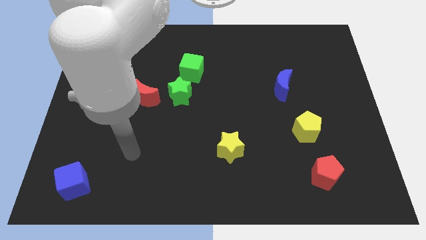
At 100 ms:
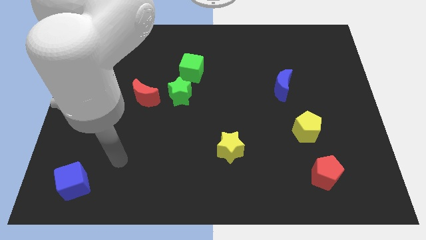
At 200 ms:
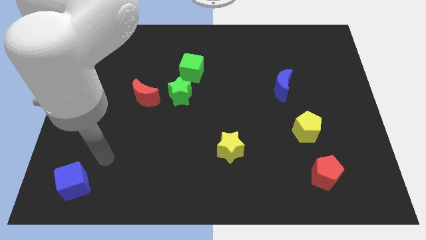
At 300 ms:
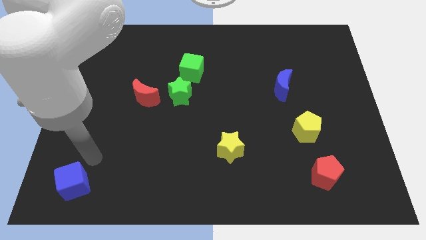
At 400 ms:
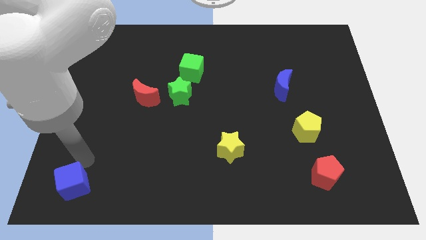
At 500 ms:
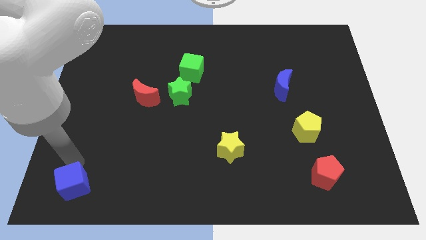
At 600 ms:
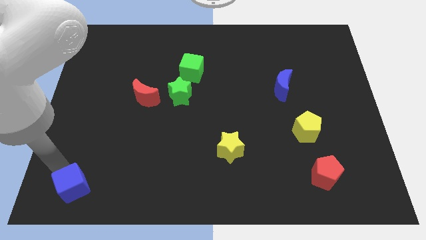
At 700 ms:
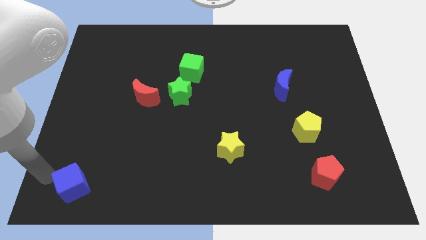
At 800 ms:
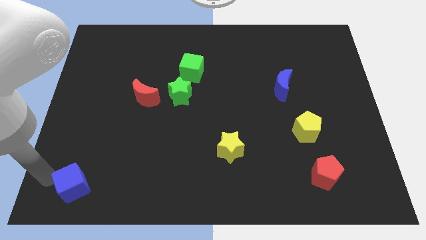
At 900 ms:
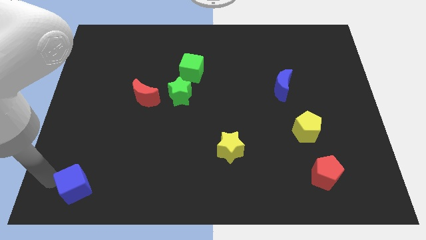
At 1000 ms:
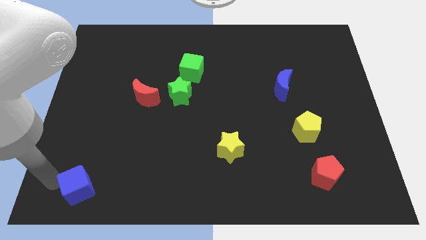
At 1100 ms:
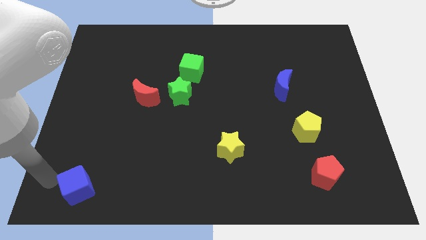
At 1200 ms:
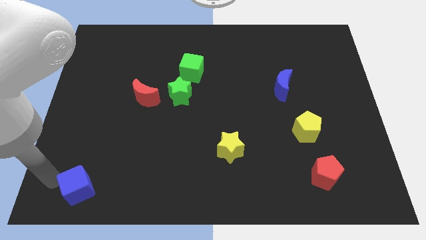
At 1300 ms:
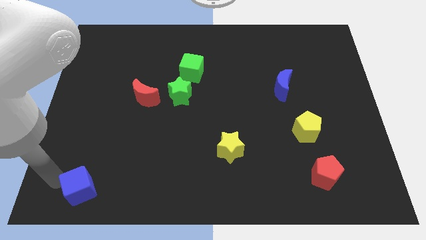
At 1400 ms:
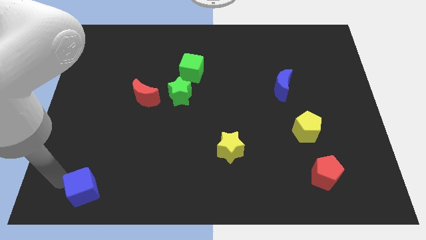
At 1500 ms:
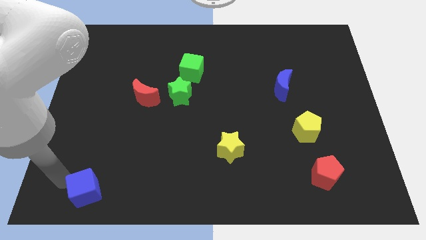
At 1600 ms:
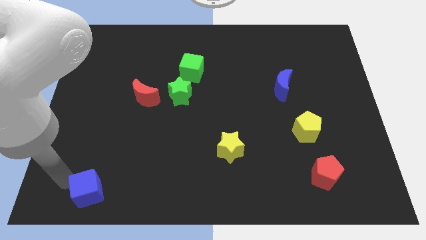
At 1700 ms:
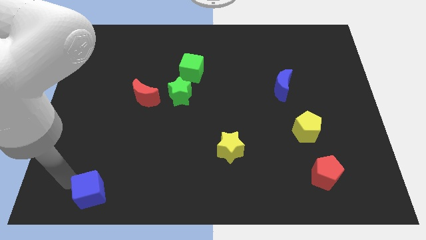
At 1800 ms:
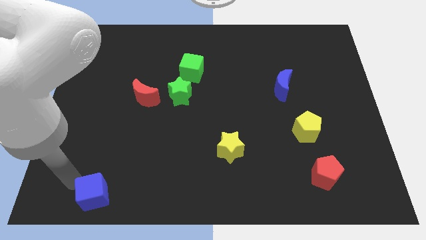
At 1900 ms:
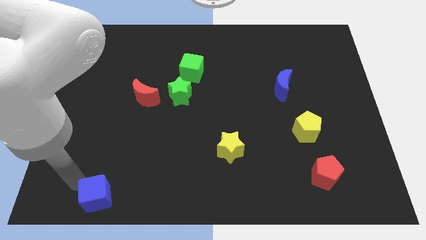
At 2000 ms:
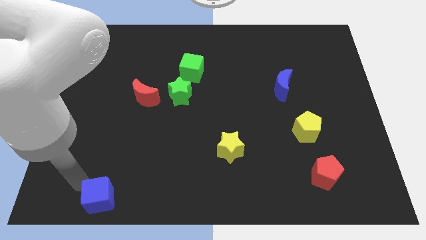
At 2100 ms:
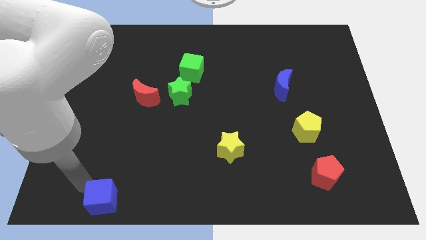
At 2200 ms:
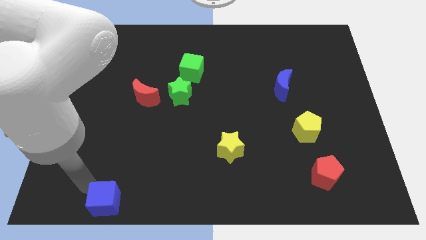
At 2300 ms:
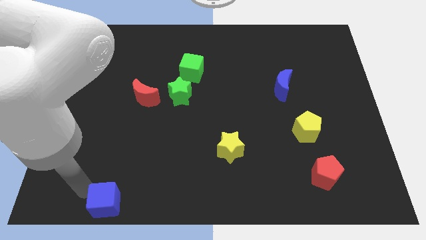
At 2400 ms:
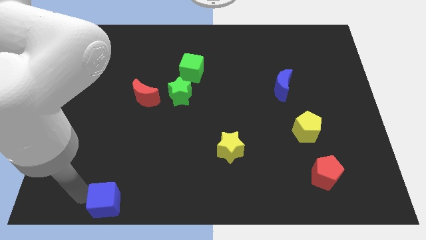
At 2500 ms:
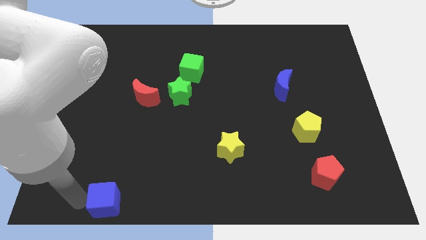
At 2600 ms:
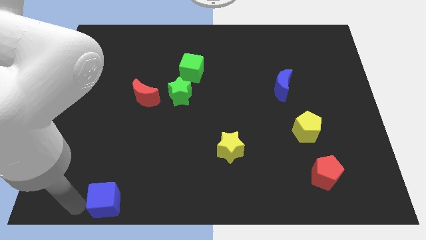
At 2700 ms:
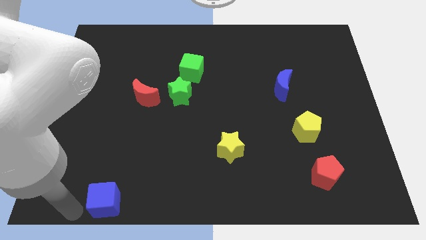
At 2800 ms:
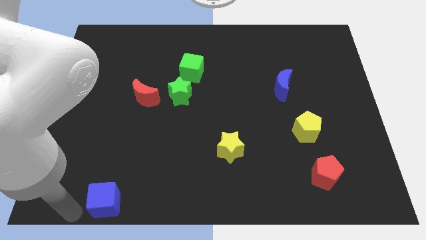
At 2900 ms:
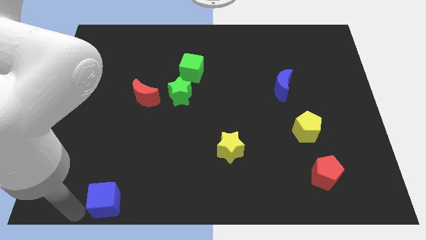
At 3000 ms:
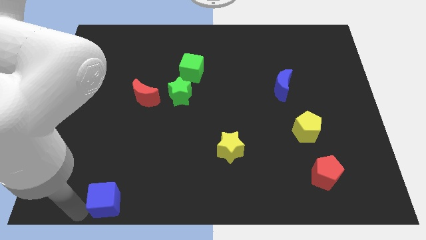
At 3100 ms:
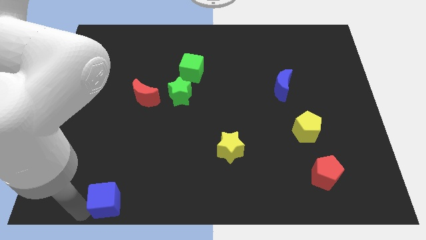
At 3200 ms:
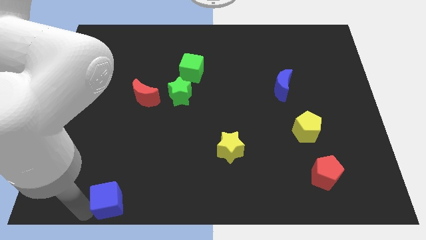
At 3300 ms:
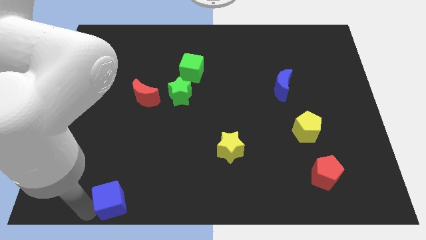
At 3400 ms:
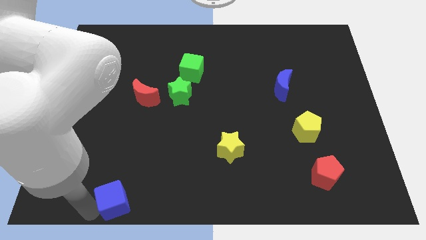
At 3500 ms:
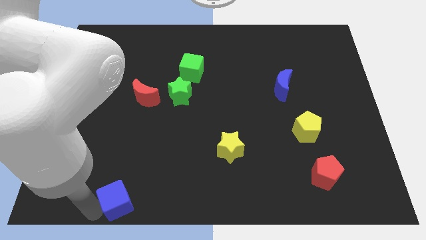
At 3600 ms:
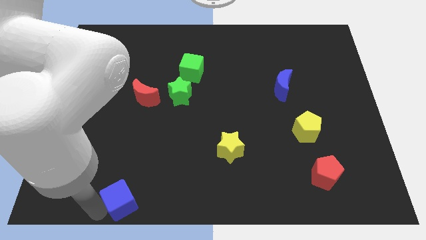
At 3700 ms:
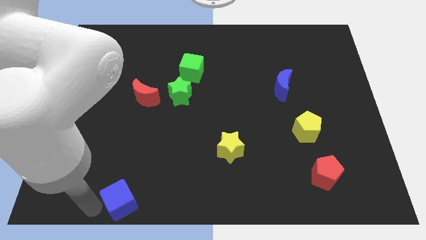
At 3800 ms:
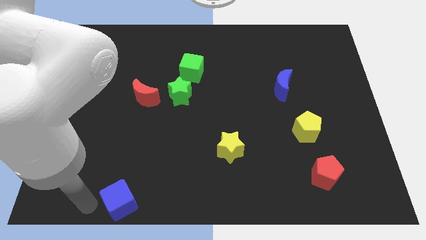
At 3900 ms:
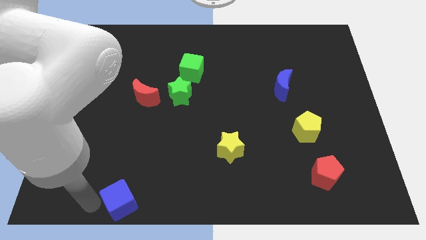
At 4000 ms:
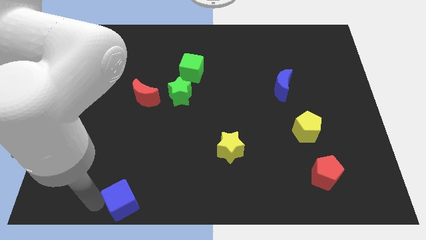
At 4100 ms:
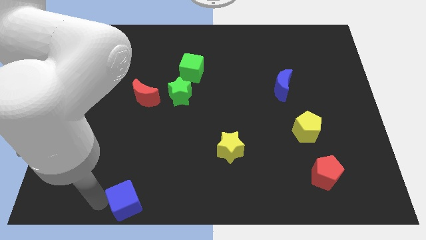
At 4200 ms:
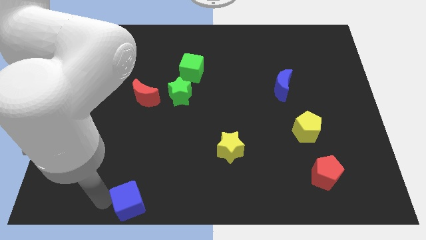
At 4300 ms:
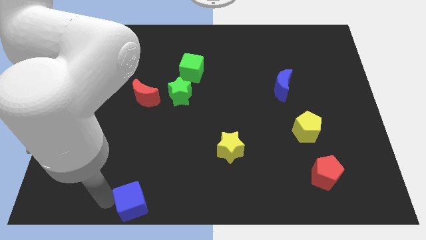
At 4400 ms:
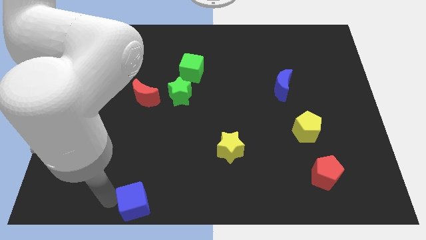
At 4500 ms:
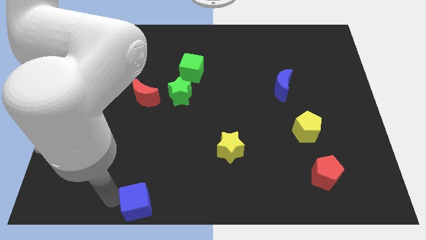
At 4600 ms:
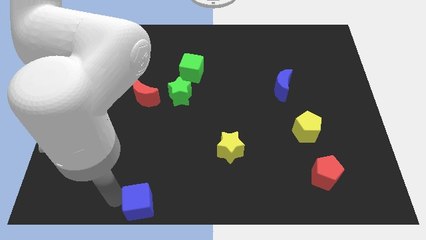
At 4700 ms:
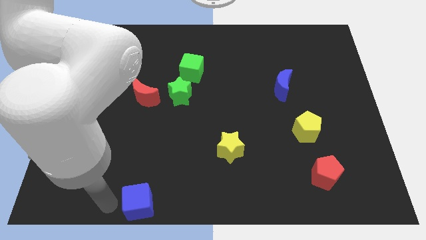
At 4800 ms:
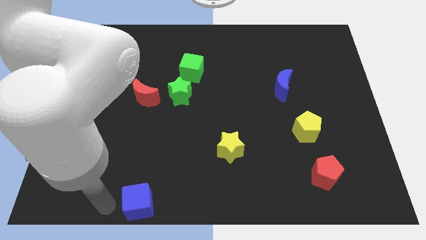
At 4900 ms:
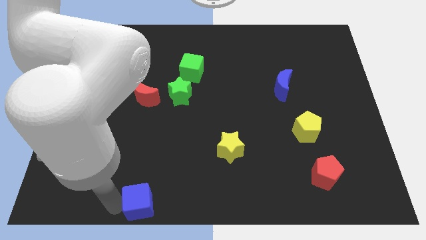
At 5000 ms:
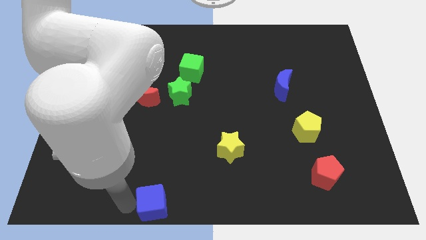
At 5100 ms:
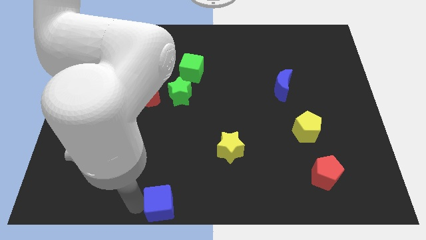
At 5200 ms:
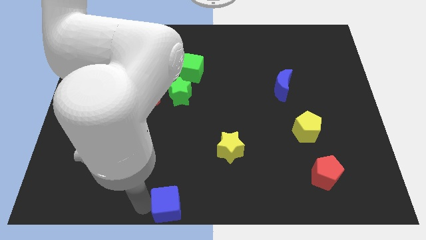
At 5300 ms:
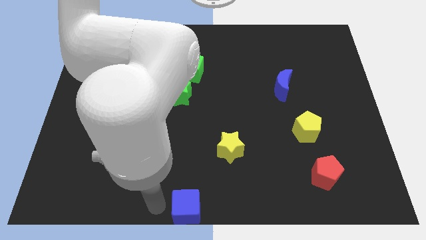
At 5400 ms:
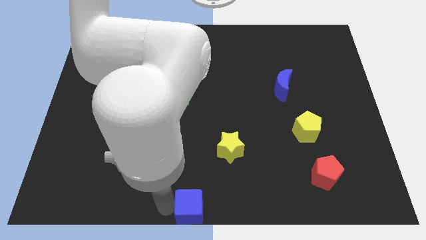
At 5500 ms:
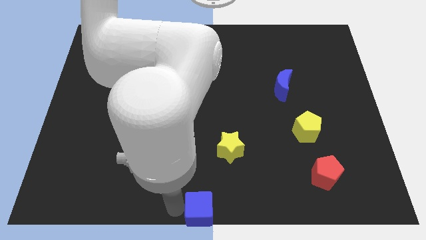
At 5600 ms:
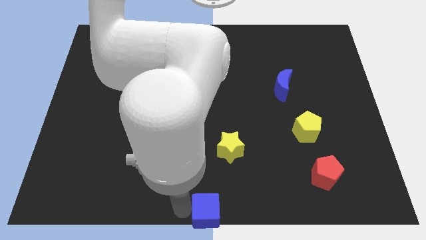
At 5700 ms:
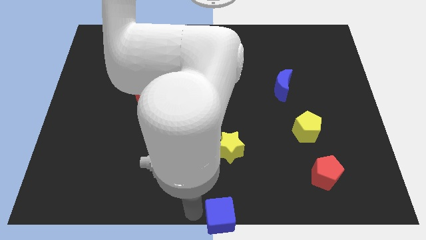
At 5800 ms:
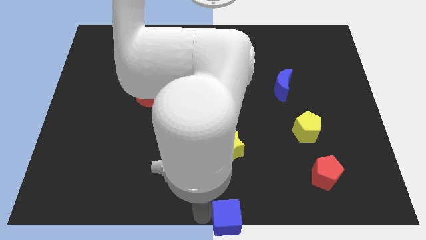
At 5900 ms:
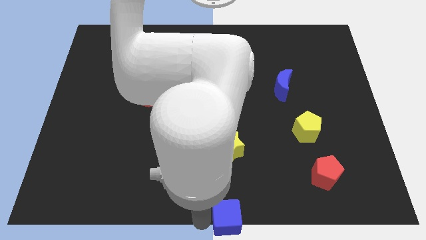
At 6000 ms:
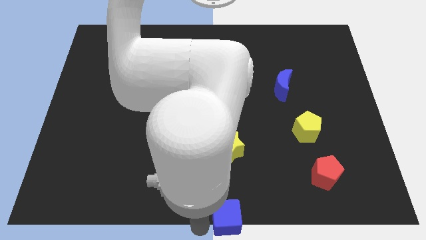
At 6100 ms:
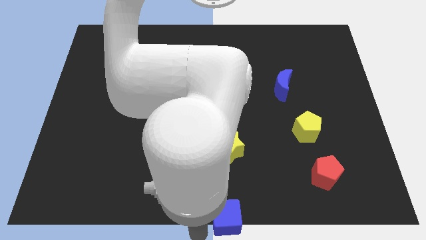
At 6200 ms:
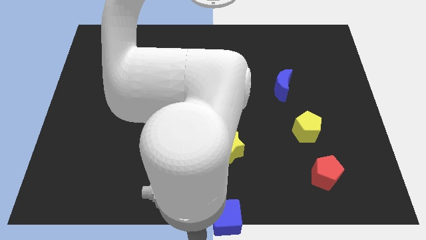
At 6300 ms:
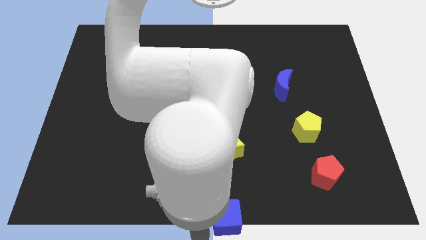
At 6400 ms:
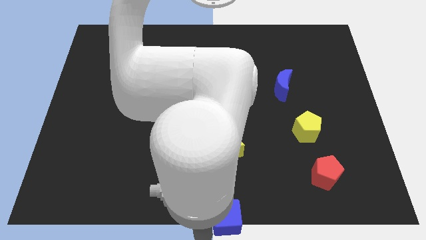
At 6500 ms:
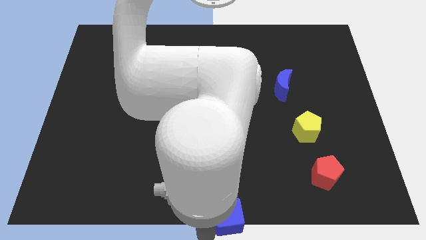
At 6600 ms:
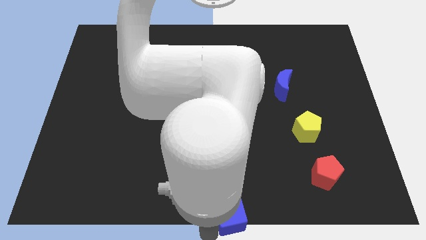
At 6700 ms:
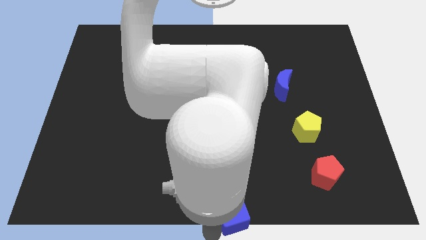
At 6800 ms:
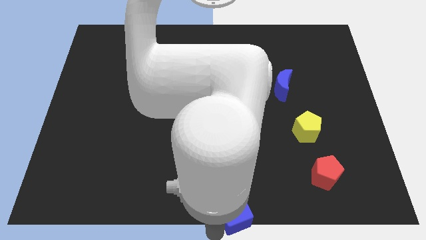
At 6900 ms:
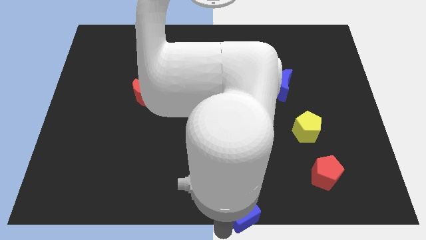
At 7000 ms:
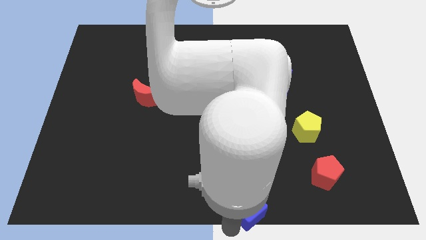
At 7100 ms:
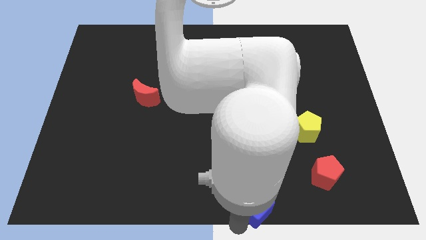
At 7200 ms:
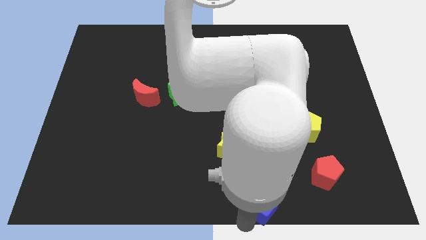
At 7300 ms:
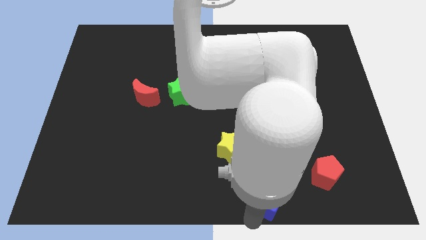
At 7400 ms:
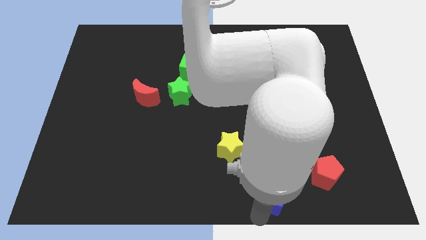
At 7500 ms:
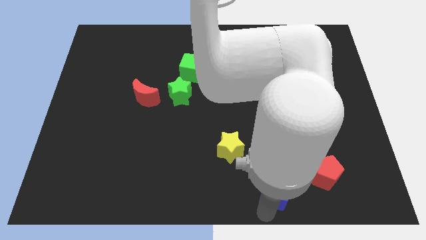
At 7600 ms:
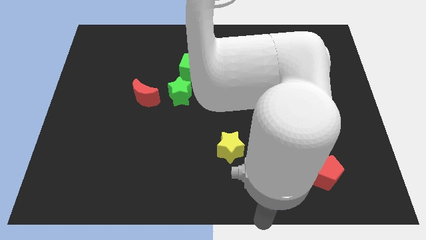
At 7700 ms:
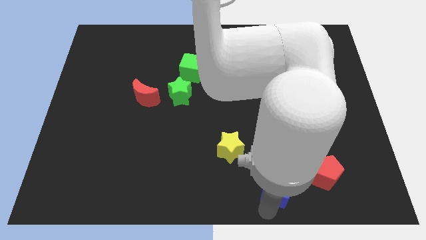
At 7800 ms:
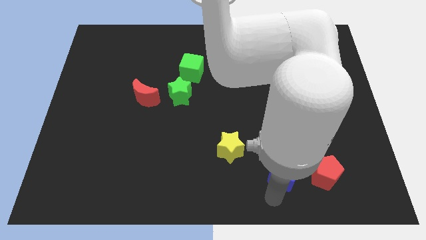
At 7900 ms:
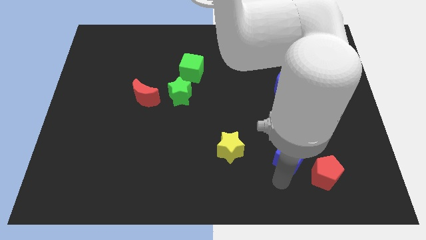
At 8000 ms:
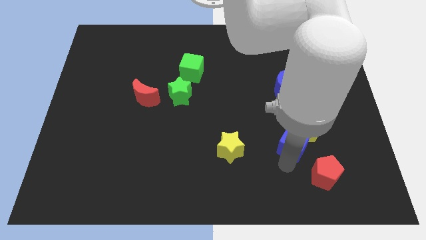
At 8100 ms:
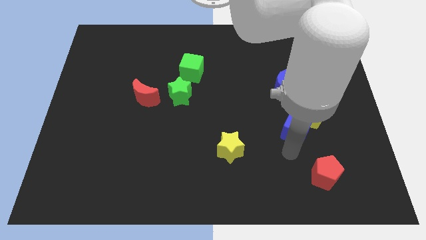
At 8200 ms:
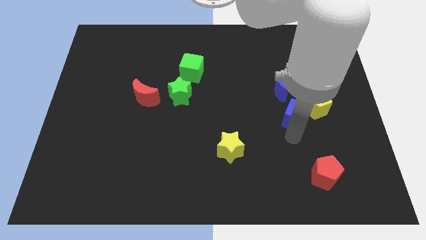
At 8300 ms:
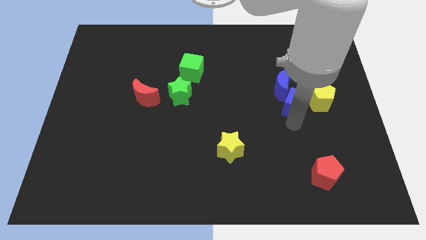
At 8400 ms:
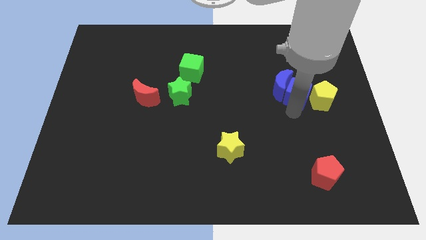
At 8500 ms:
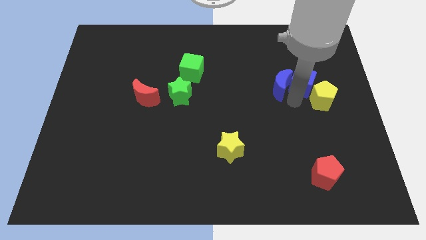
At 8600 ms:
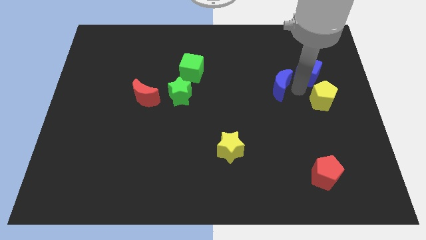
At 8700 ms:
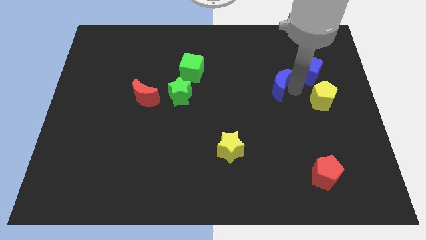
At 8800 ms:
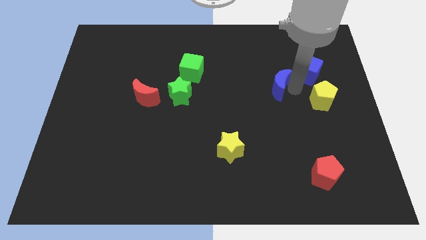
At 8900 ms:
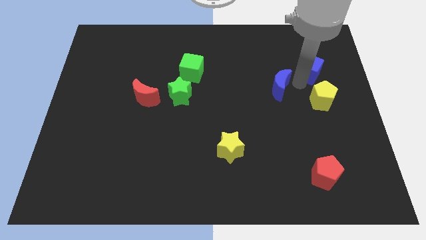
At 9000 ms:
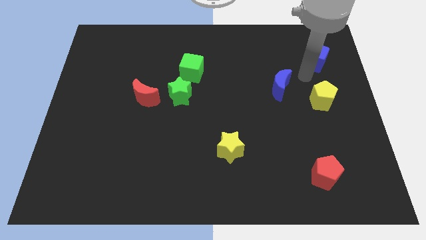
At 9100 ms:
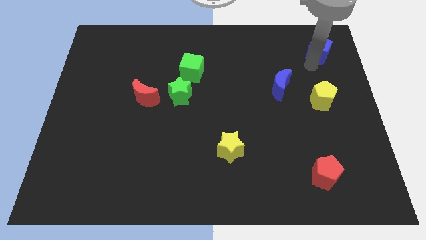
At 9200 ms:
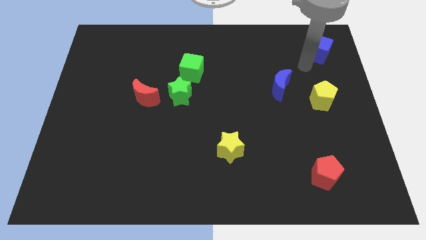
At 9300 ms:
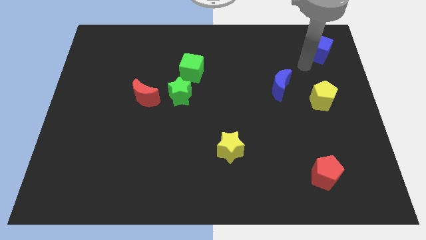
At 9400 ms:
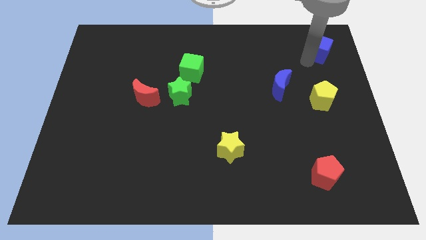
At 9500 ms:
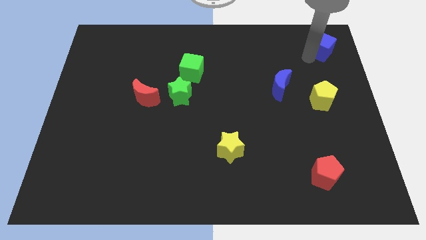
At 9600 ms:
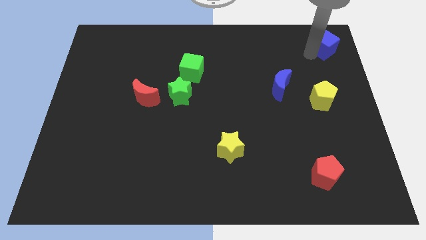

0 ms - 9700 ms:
slide the blue cube to the top right of the board
